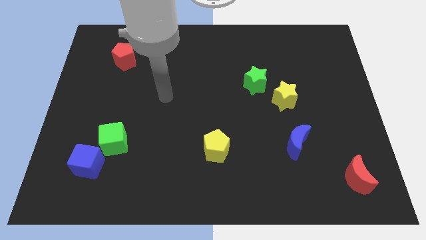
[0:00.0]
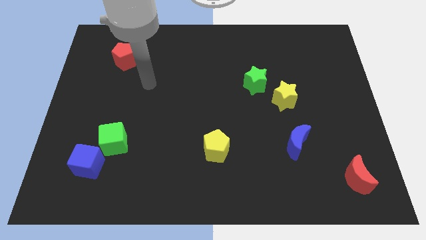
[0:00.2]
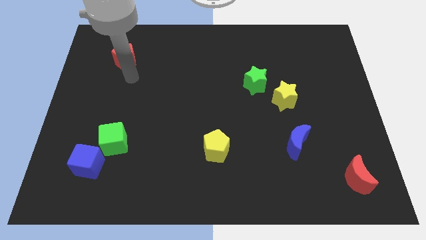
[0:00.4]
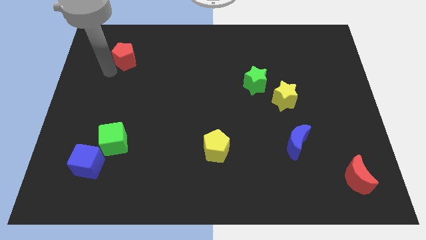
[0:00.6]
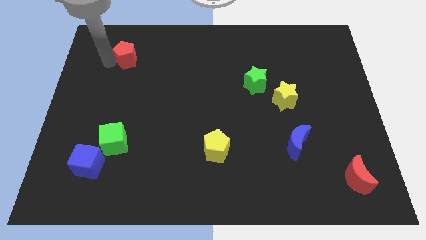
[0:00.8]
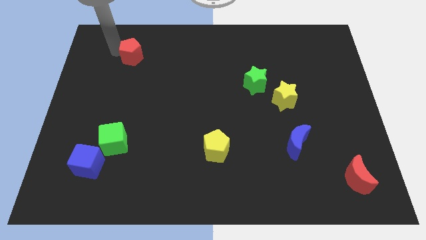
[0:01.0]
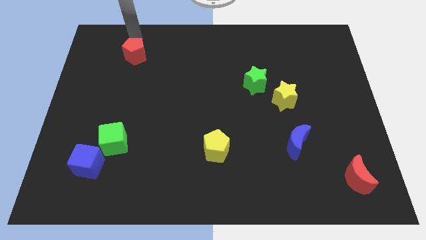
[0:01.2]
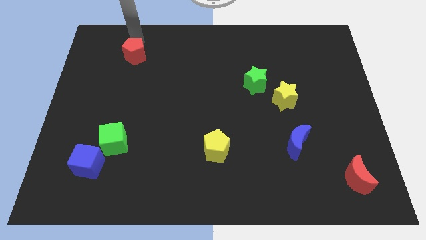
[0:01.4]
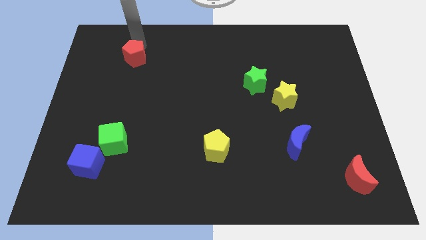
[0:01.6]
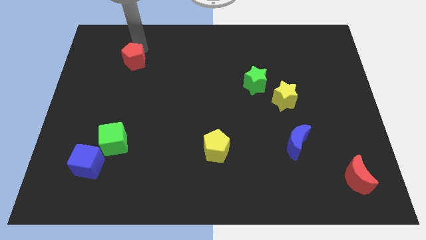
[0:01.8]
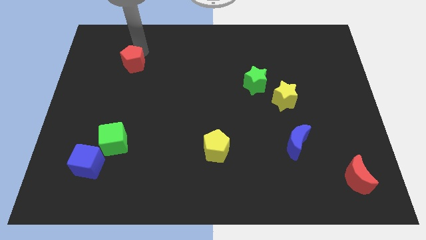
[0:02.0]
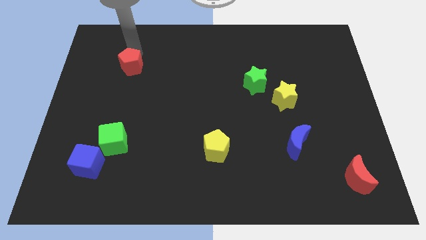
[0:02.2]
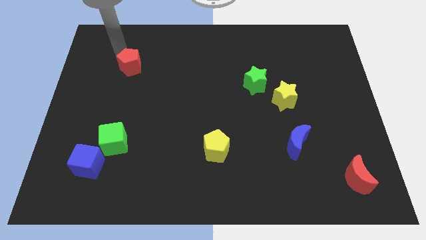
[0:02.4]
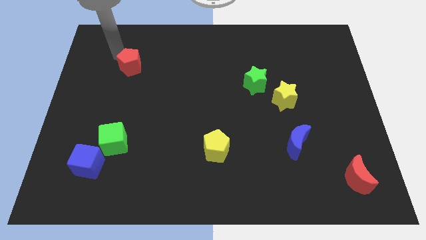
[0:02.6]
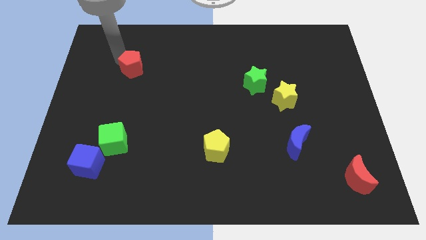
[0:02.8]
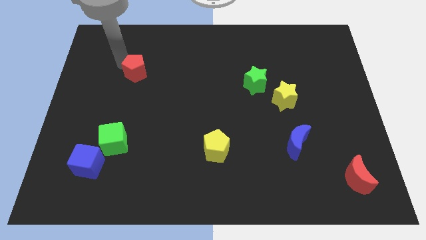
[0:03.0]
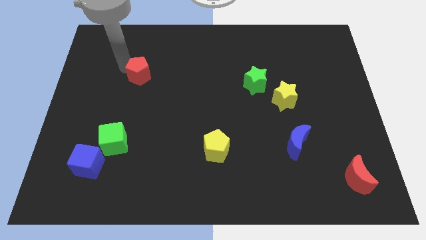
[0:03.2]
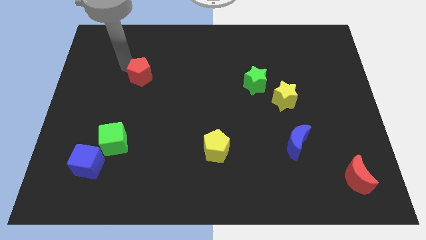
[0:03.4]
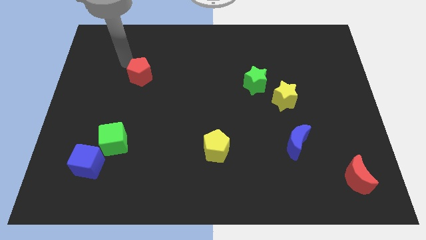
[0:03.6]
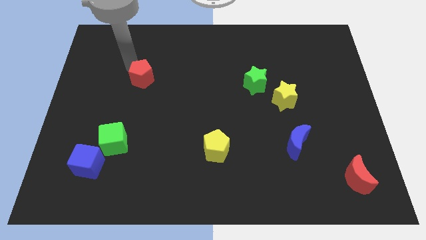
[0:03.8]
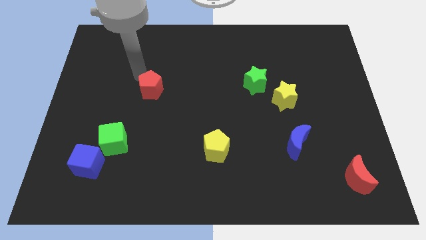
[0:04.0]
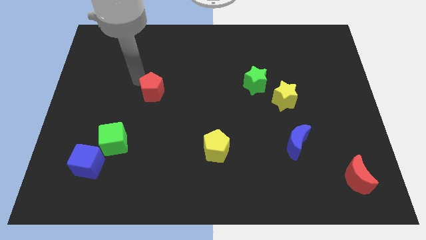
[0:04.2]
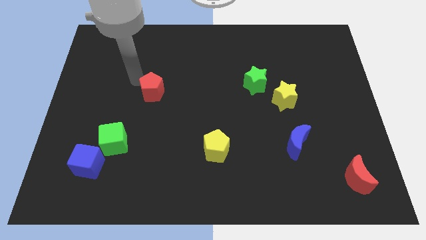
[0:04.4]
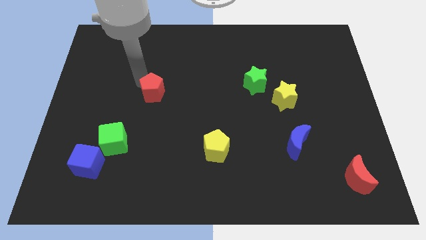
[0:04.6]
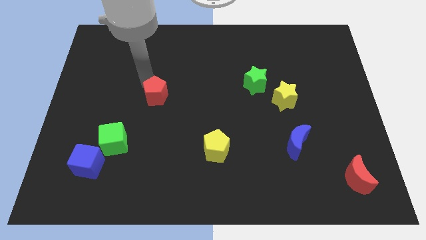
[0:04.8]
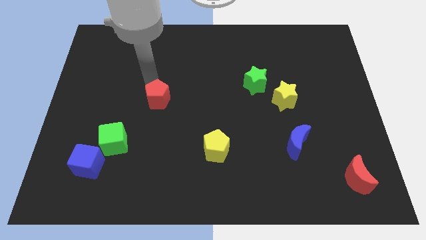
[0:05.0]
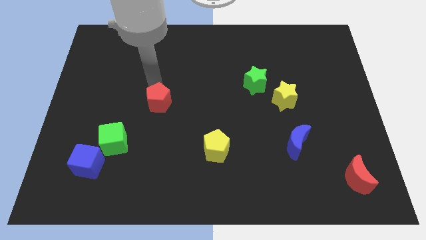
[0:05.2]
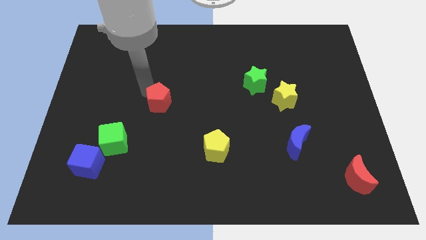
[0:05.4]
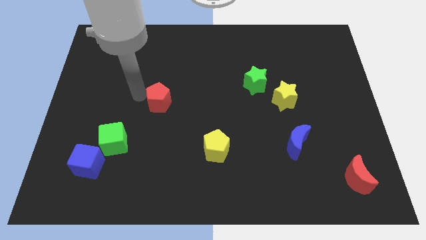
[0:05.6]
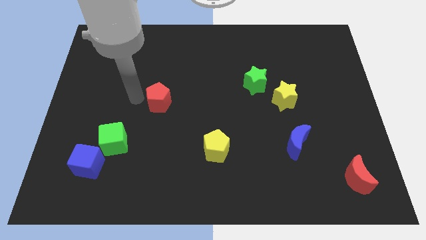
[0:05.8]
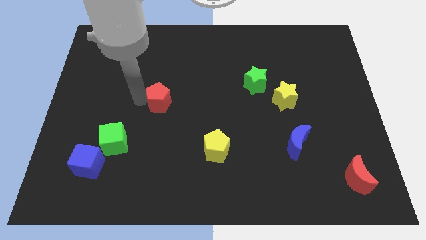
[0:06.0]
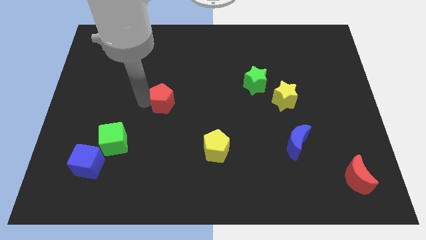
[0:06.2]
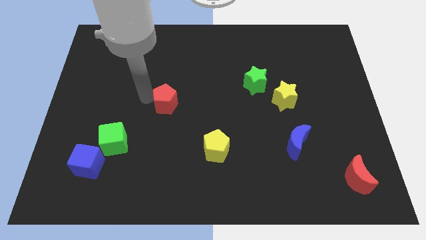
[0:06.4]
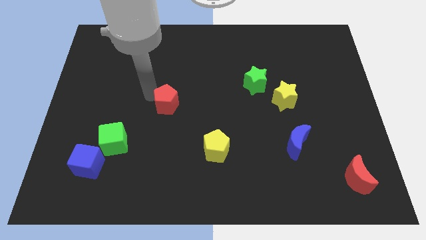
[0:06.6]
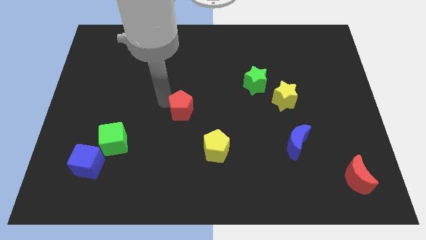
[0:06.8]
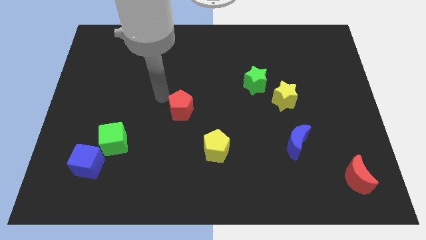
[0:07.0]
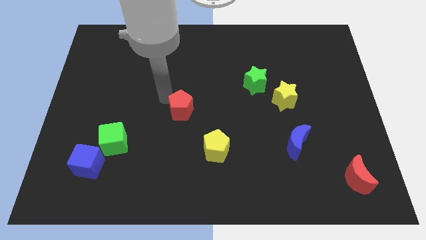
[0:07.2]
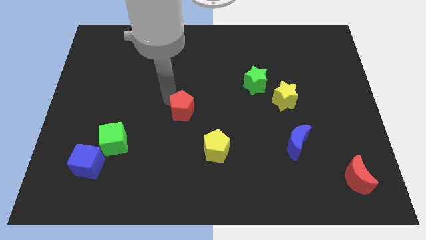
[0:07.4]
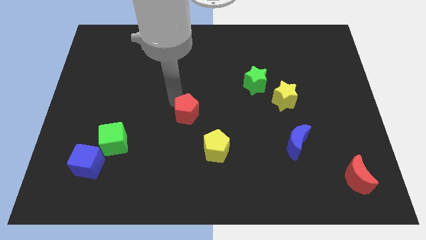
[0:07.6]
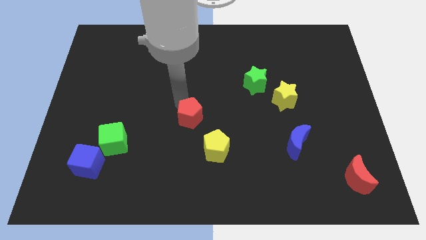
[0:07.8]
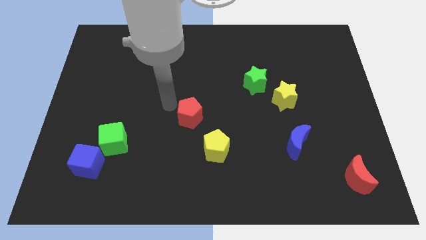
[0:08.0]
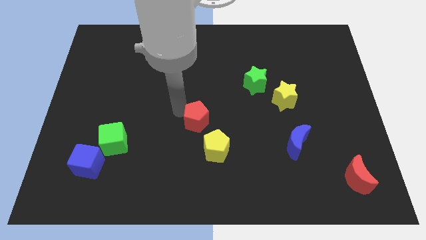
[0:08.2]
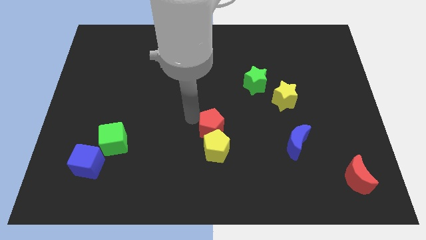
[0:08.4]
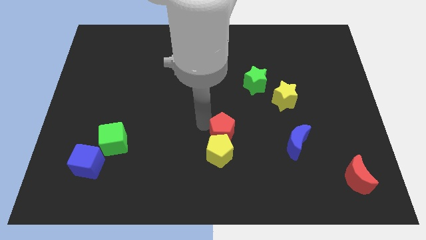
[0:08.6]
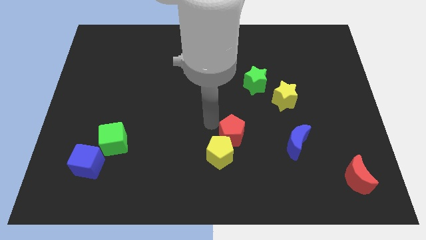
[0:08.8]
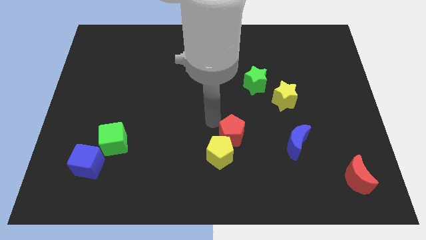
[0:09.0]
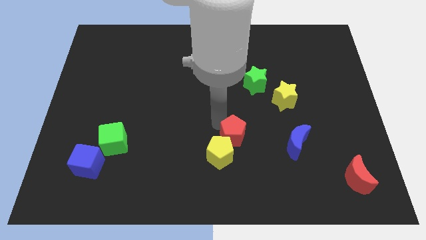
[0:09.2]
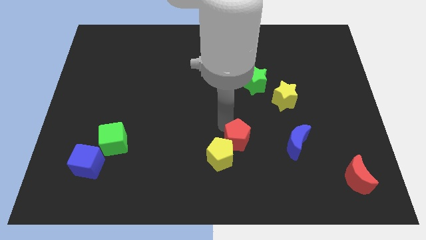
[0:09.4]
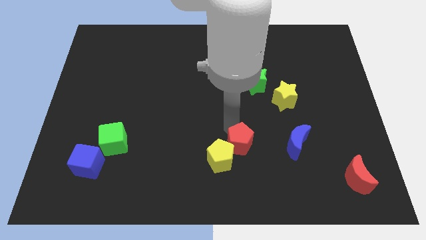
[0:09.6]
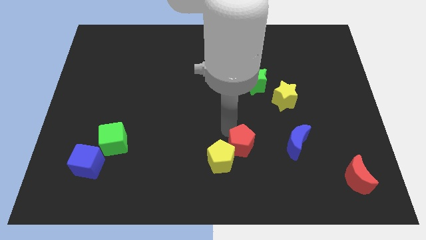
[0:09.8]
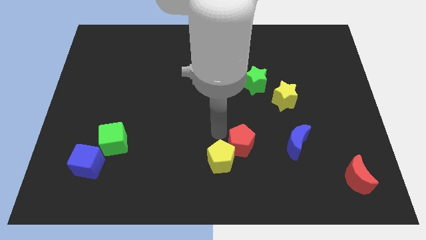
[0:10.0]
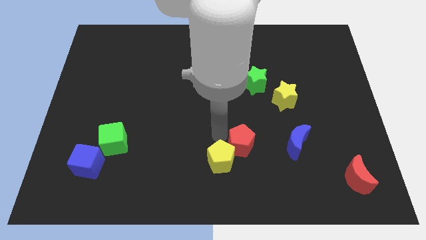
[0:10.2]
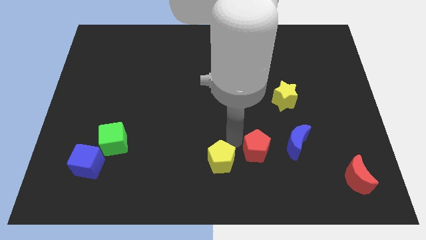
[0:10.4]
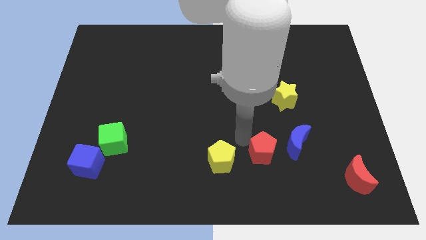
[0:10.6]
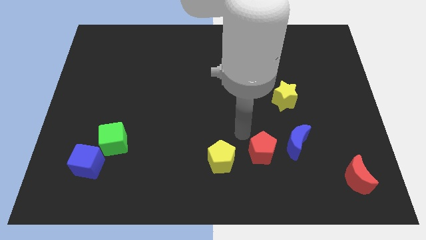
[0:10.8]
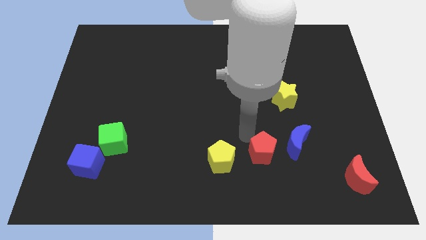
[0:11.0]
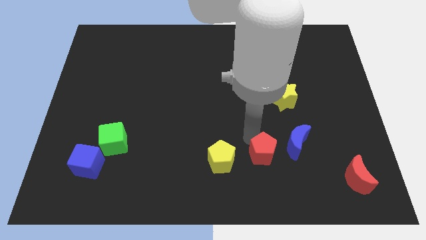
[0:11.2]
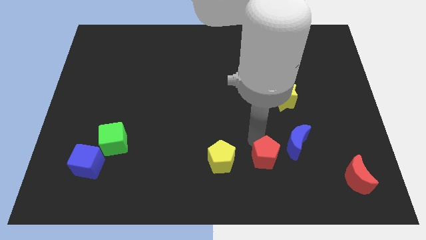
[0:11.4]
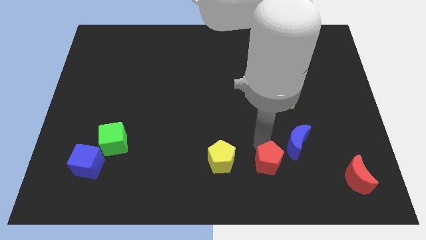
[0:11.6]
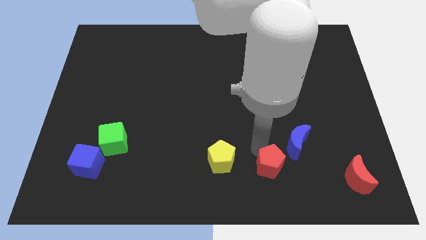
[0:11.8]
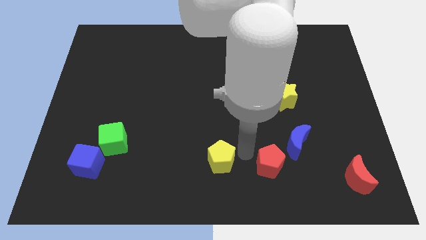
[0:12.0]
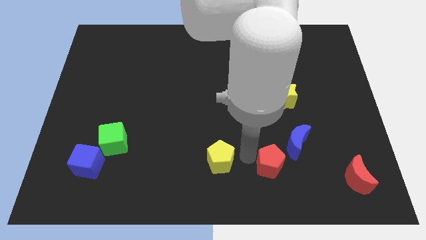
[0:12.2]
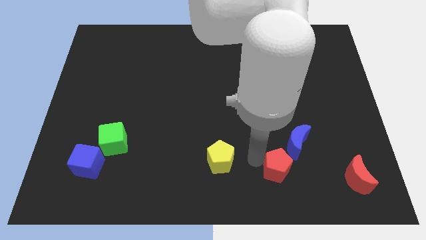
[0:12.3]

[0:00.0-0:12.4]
push the red pentagon left of the red moon

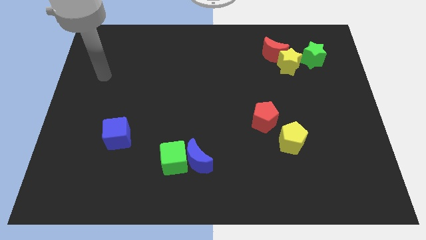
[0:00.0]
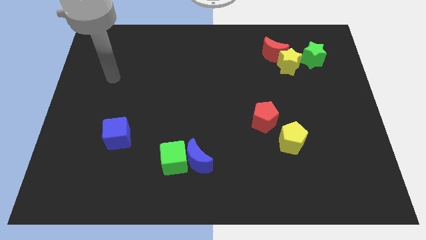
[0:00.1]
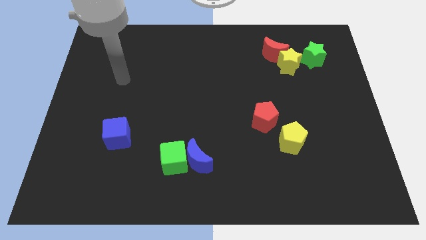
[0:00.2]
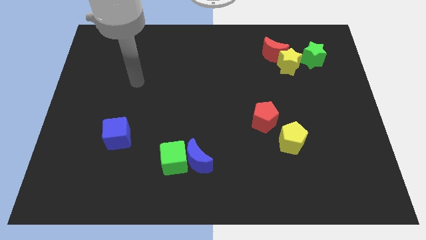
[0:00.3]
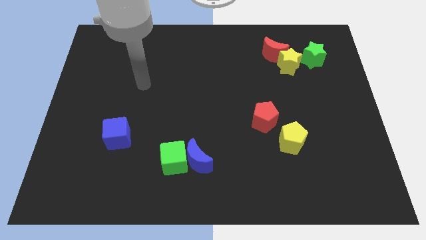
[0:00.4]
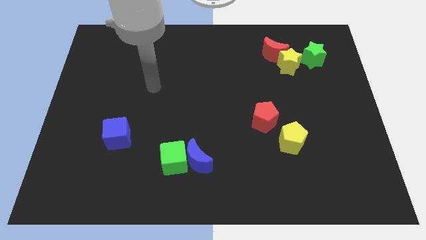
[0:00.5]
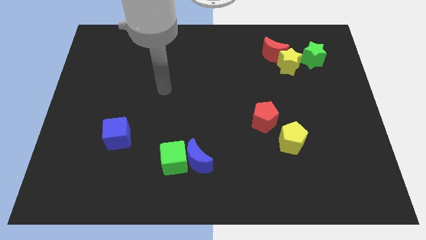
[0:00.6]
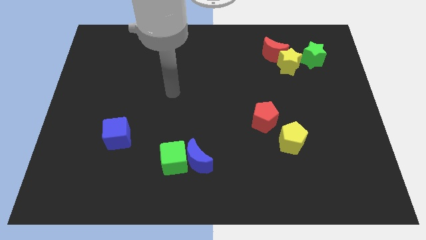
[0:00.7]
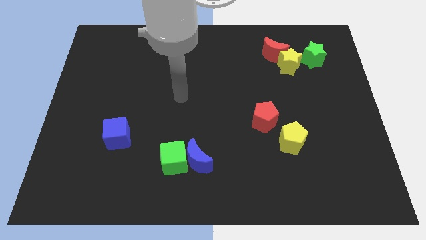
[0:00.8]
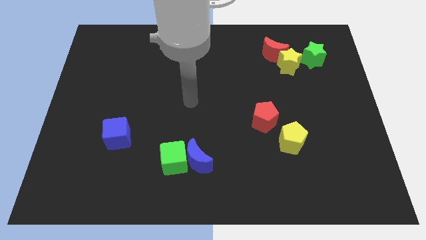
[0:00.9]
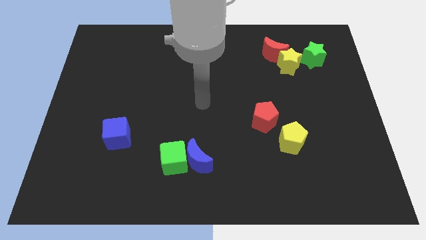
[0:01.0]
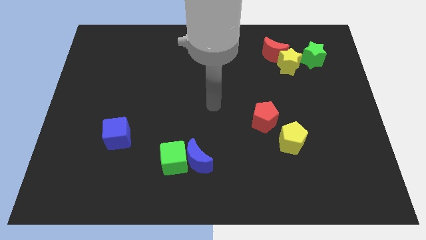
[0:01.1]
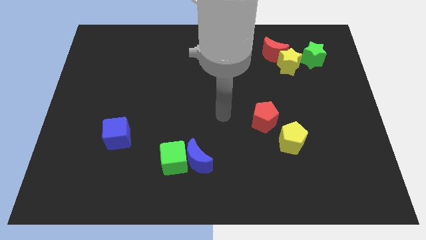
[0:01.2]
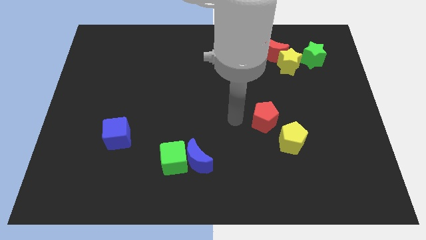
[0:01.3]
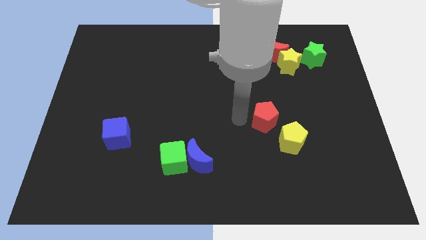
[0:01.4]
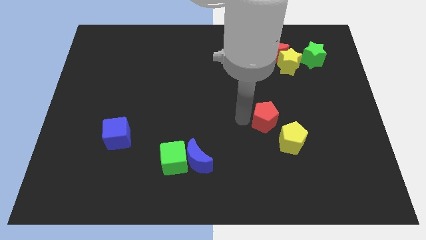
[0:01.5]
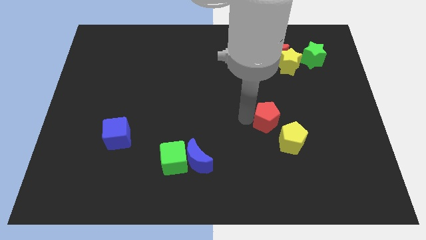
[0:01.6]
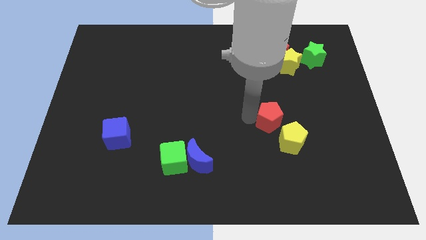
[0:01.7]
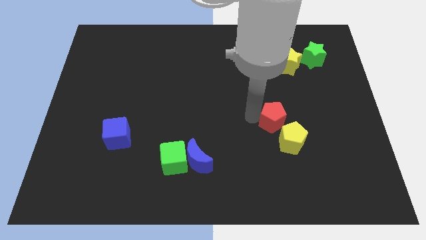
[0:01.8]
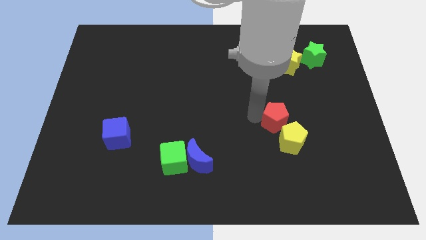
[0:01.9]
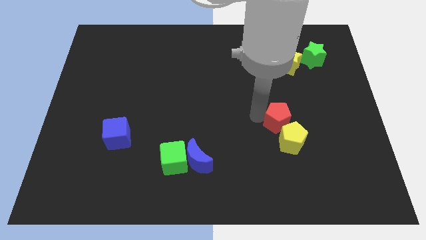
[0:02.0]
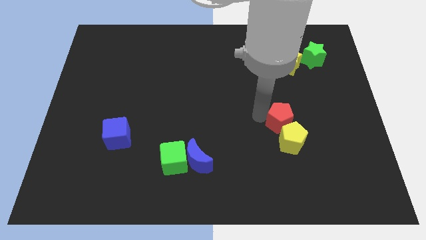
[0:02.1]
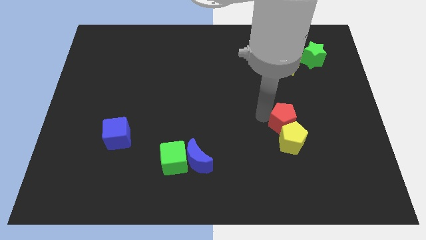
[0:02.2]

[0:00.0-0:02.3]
slide the red pentagon to the top right of the yellow pentagon
